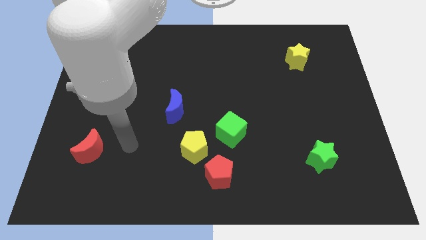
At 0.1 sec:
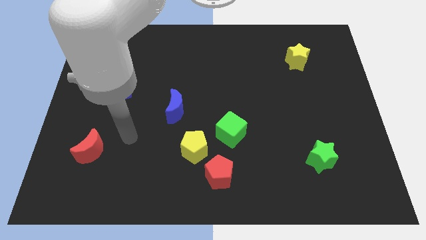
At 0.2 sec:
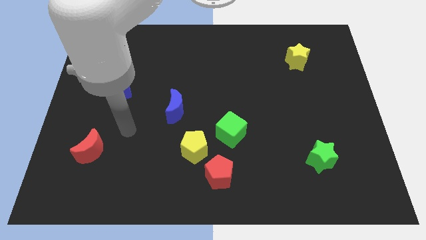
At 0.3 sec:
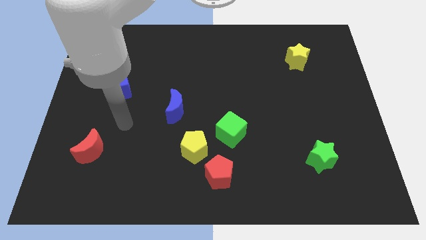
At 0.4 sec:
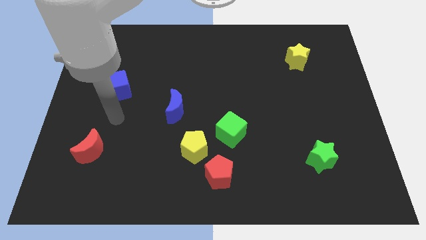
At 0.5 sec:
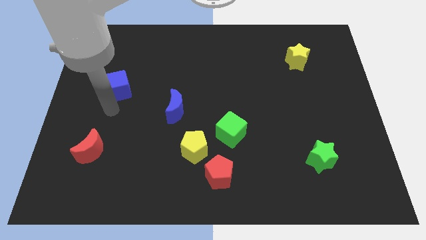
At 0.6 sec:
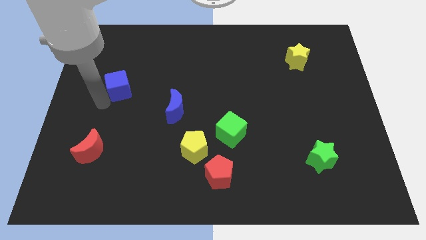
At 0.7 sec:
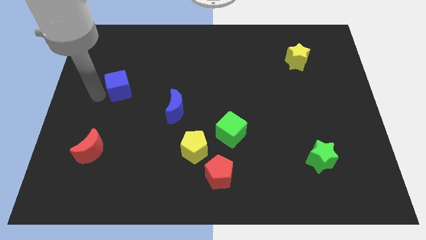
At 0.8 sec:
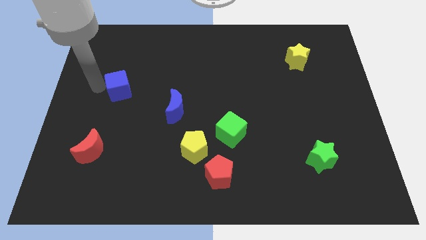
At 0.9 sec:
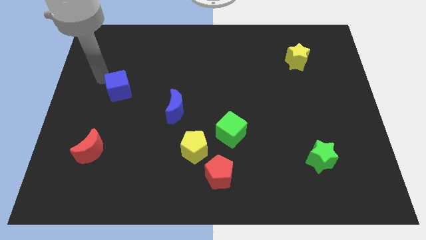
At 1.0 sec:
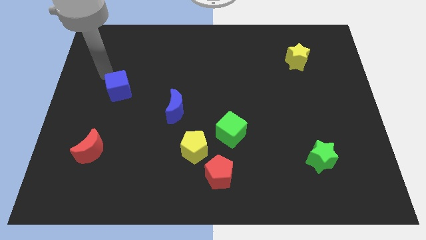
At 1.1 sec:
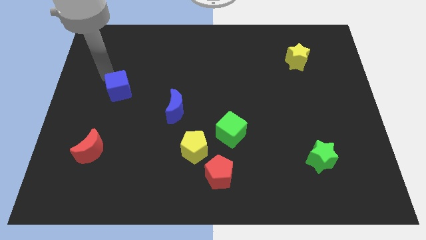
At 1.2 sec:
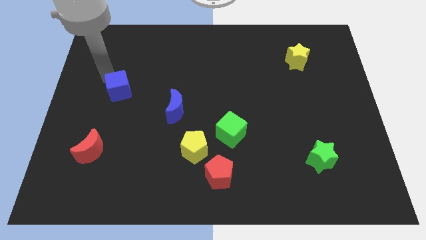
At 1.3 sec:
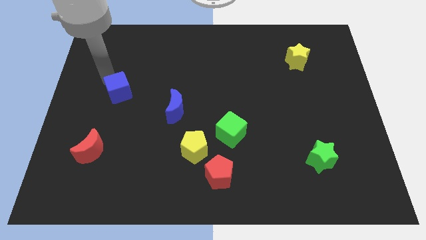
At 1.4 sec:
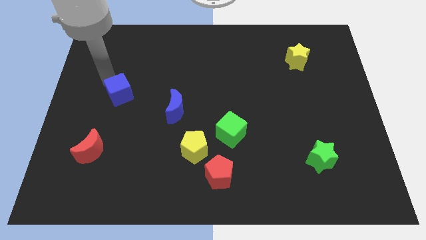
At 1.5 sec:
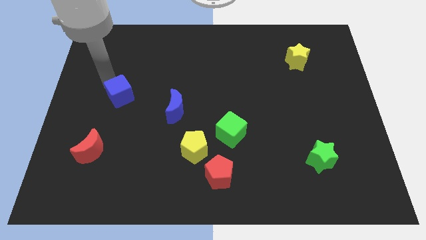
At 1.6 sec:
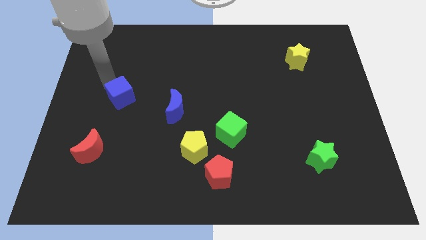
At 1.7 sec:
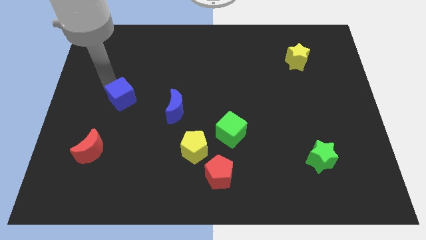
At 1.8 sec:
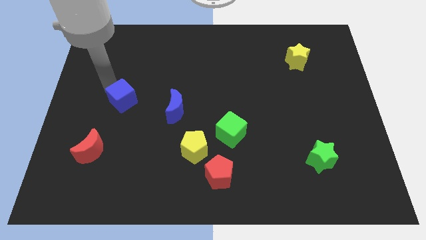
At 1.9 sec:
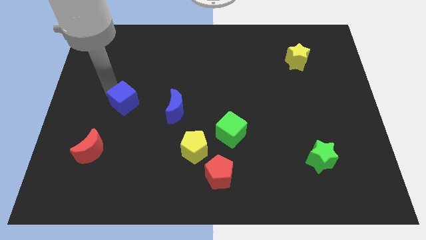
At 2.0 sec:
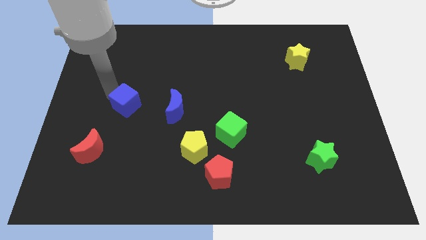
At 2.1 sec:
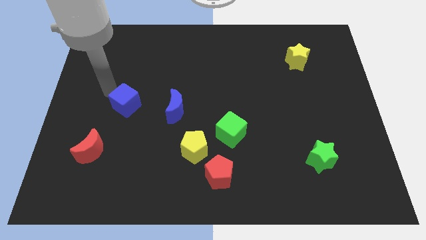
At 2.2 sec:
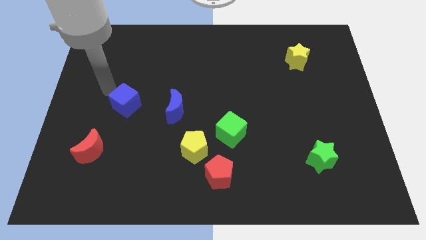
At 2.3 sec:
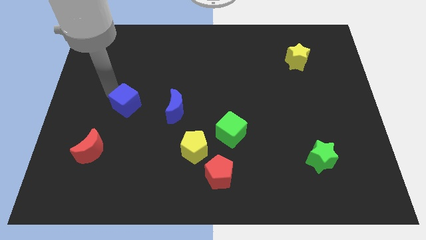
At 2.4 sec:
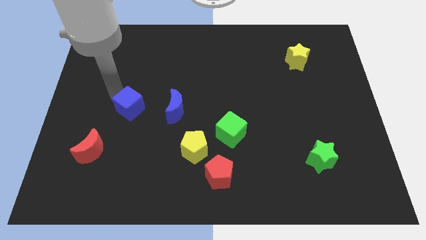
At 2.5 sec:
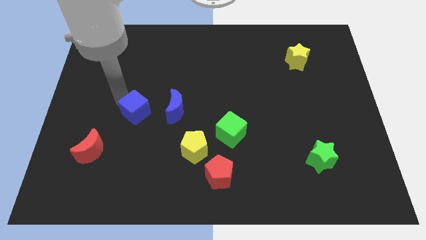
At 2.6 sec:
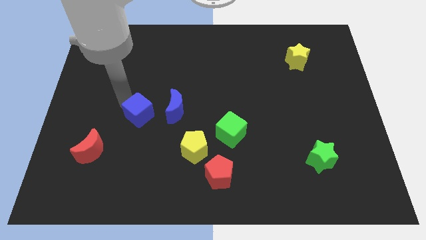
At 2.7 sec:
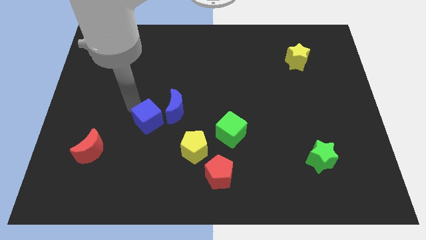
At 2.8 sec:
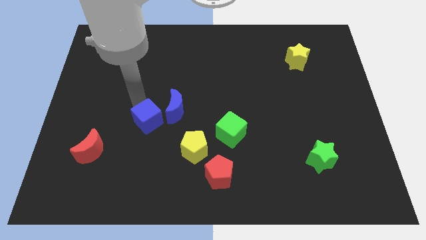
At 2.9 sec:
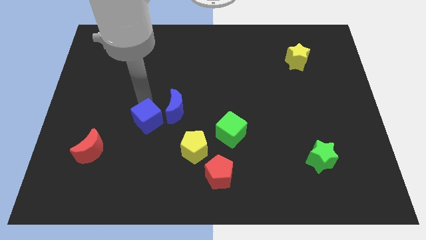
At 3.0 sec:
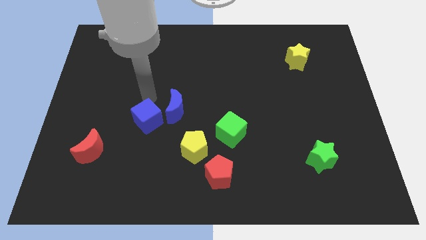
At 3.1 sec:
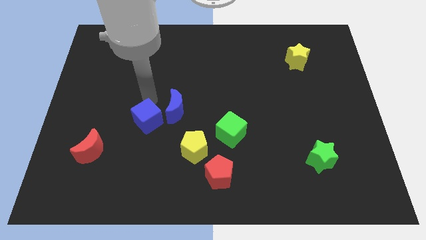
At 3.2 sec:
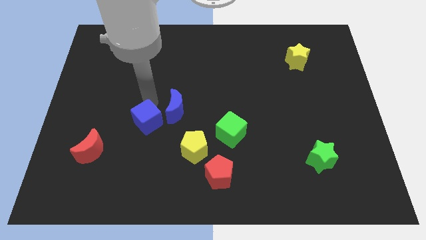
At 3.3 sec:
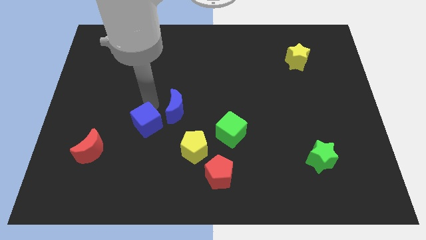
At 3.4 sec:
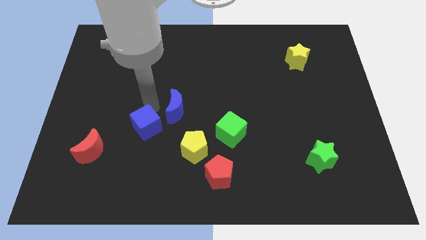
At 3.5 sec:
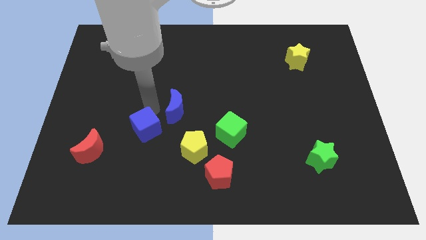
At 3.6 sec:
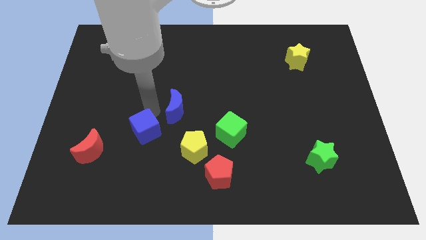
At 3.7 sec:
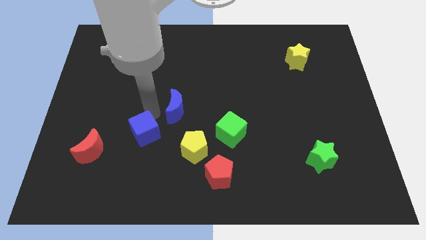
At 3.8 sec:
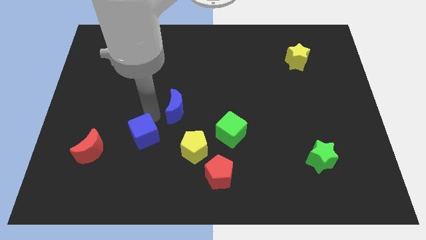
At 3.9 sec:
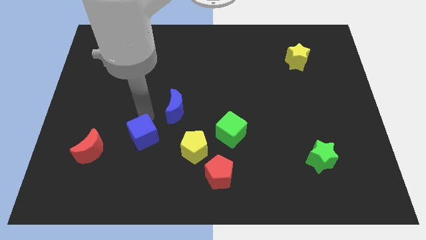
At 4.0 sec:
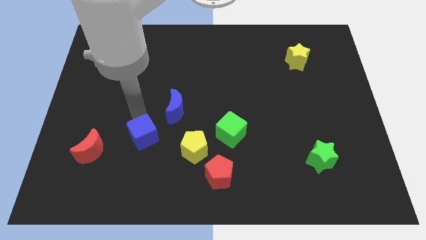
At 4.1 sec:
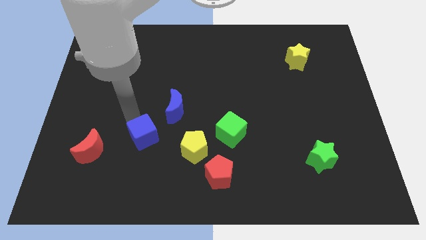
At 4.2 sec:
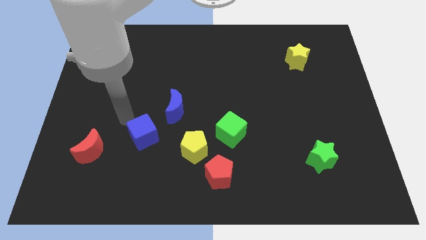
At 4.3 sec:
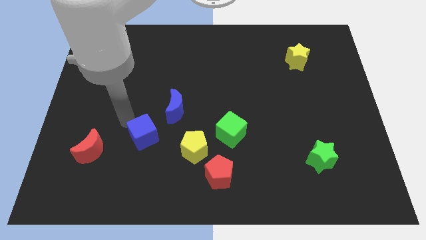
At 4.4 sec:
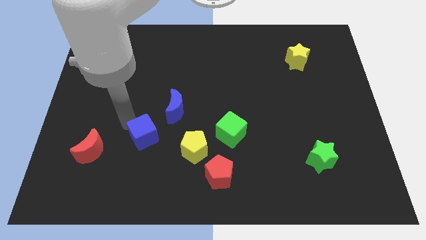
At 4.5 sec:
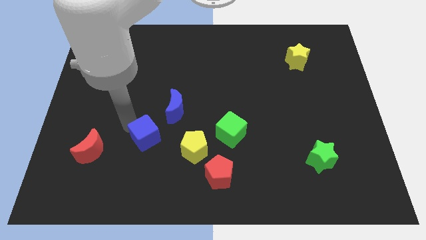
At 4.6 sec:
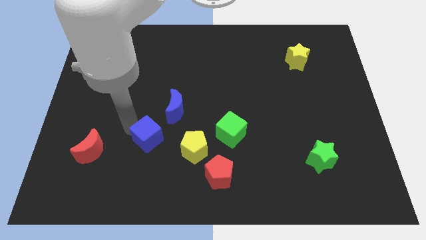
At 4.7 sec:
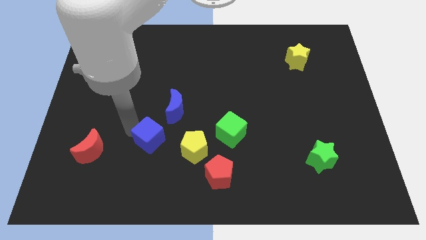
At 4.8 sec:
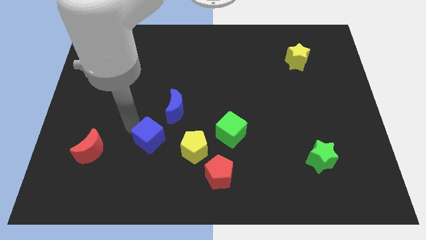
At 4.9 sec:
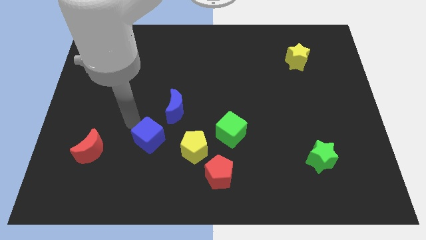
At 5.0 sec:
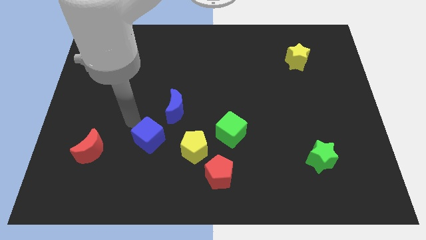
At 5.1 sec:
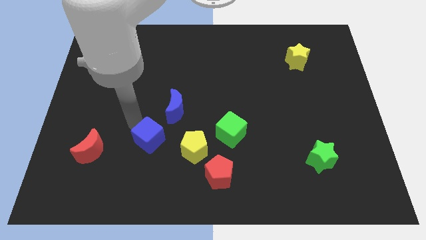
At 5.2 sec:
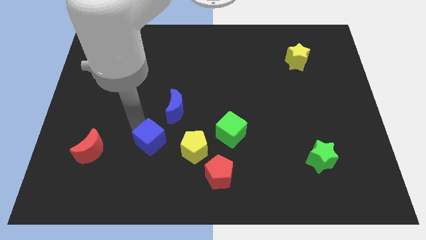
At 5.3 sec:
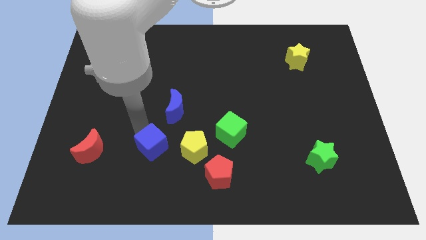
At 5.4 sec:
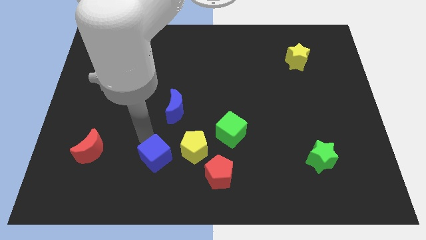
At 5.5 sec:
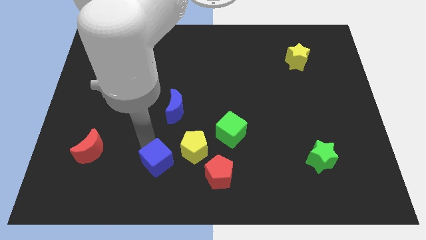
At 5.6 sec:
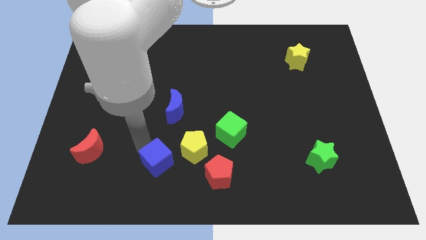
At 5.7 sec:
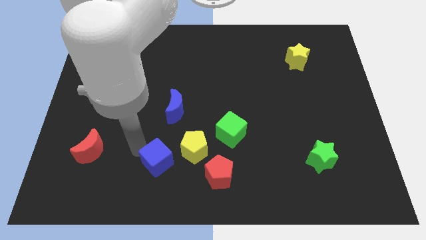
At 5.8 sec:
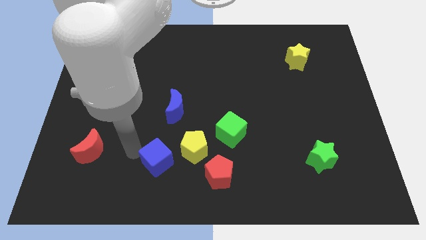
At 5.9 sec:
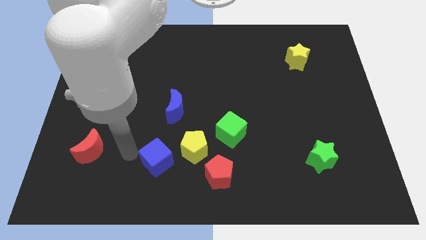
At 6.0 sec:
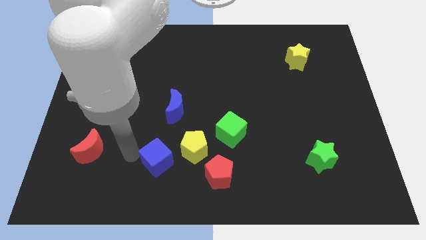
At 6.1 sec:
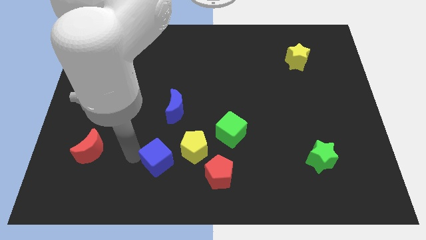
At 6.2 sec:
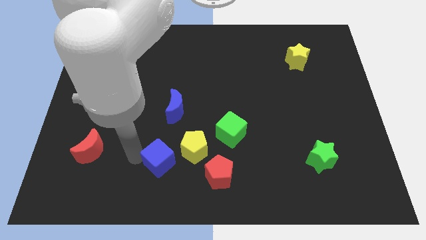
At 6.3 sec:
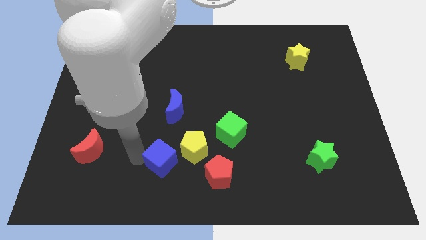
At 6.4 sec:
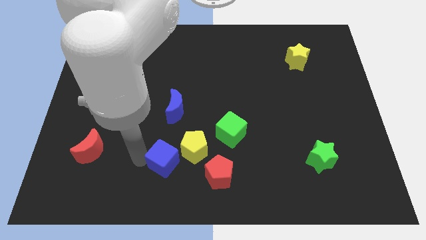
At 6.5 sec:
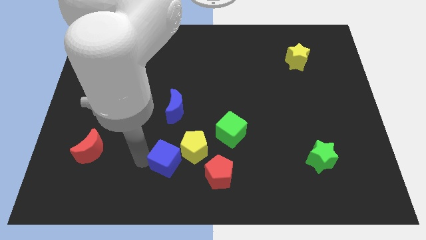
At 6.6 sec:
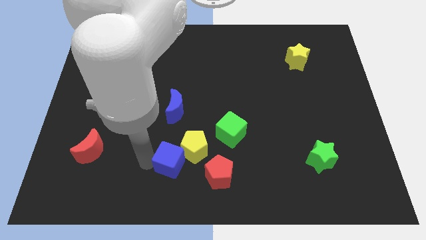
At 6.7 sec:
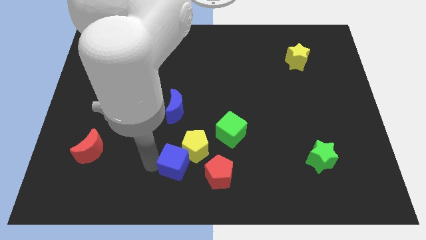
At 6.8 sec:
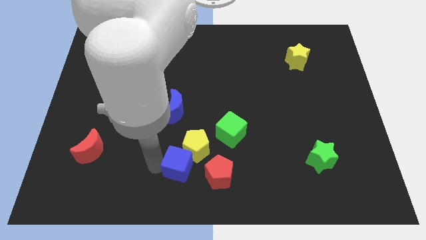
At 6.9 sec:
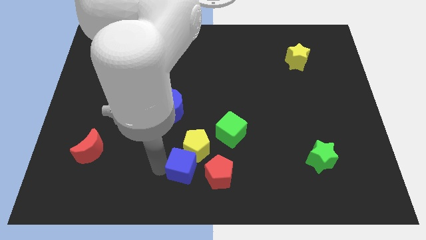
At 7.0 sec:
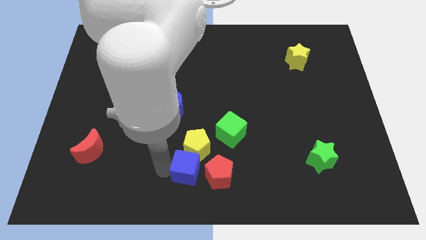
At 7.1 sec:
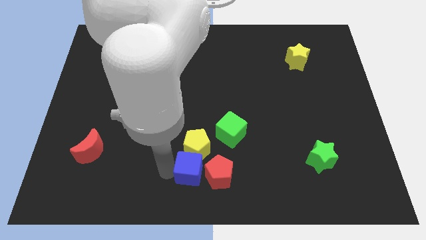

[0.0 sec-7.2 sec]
push the blue cube close to the red pentagon

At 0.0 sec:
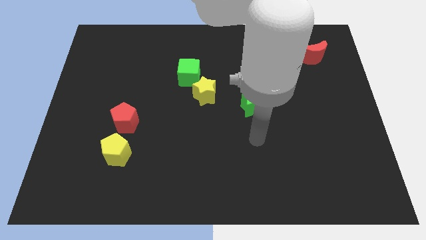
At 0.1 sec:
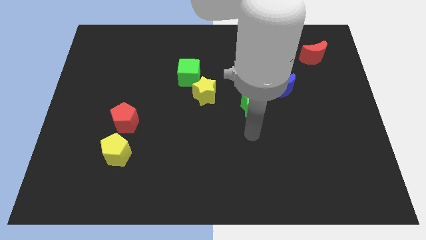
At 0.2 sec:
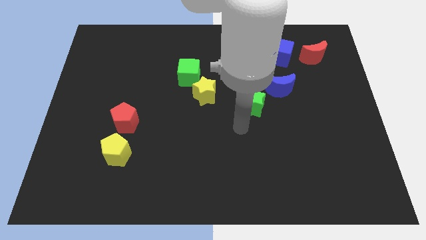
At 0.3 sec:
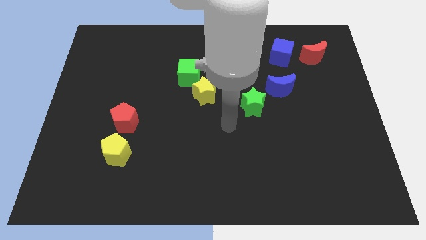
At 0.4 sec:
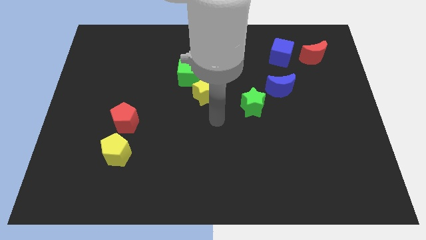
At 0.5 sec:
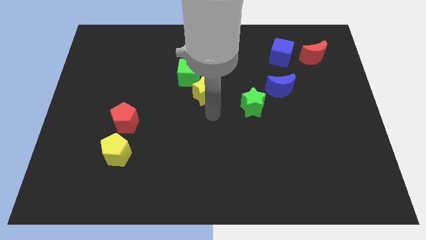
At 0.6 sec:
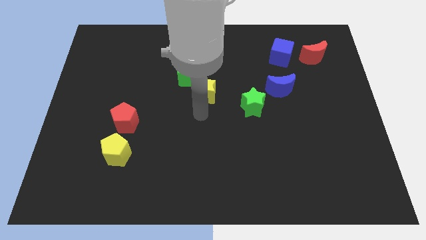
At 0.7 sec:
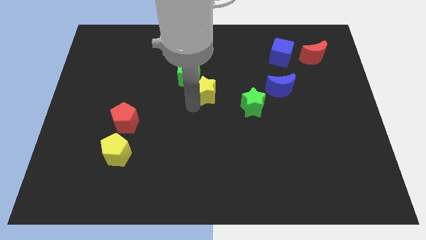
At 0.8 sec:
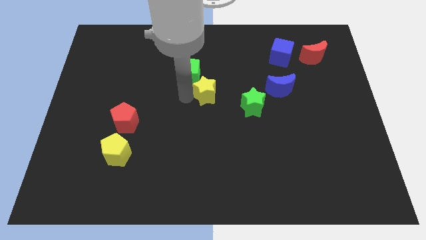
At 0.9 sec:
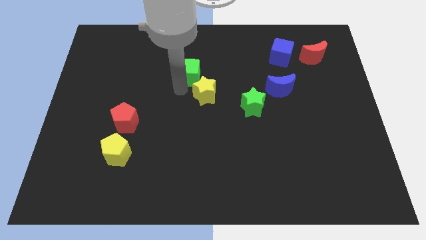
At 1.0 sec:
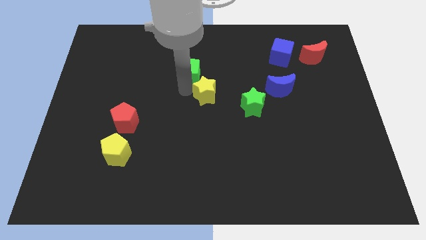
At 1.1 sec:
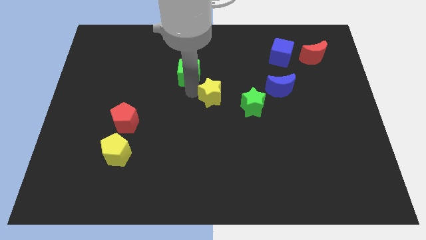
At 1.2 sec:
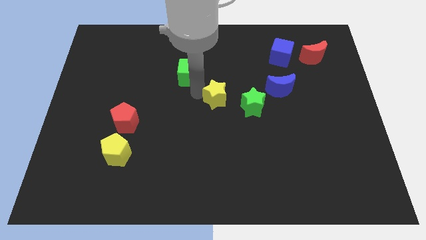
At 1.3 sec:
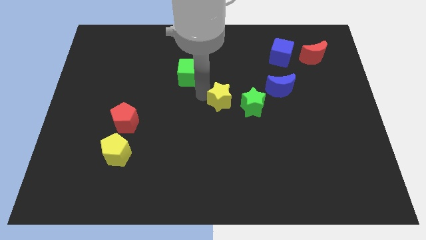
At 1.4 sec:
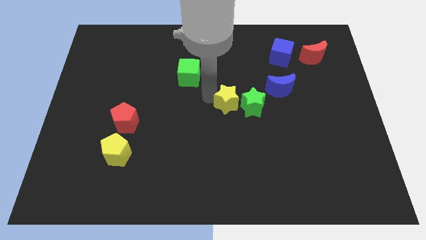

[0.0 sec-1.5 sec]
slide the yellow star close to the green star
